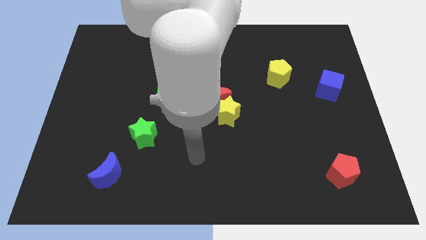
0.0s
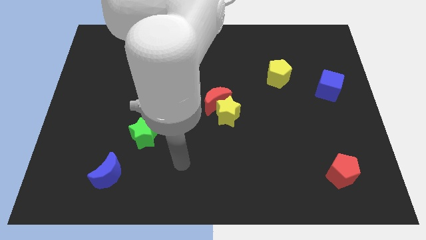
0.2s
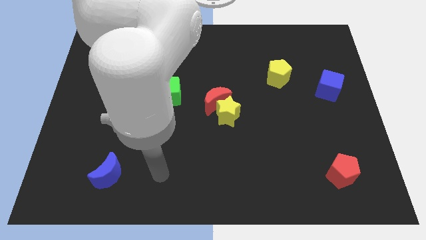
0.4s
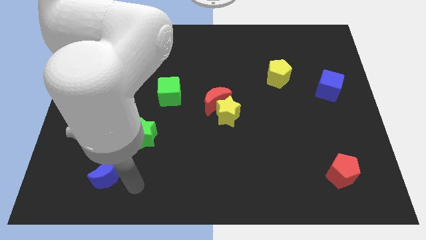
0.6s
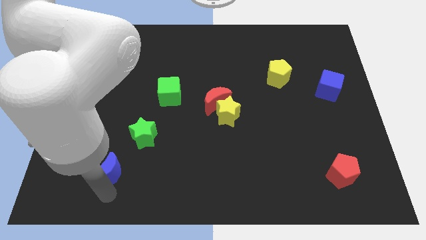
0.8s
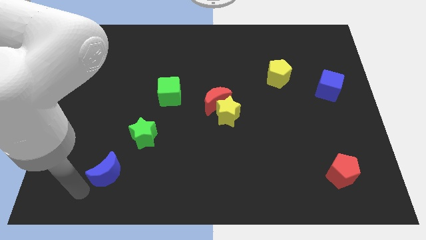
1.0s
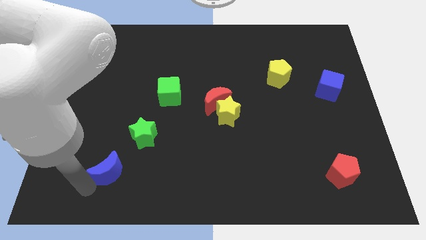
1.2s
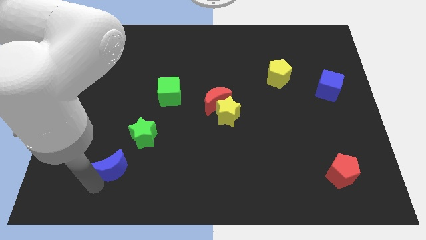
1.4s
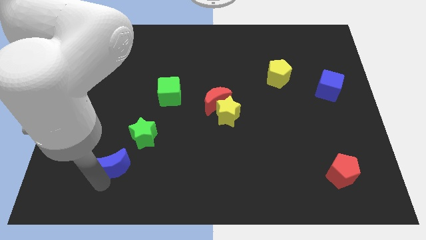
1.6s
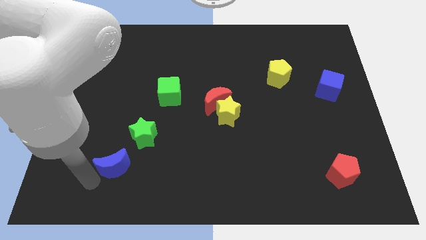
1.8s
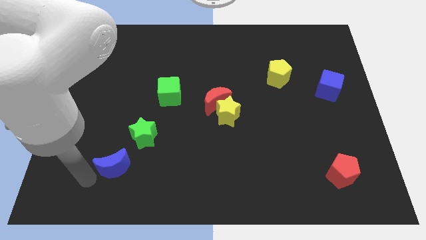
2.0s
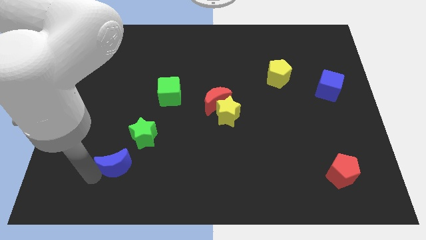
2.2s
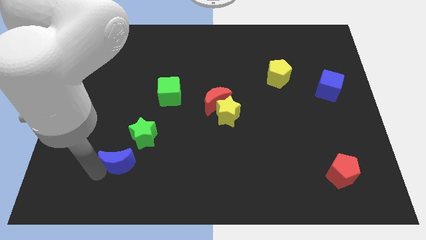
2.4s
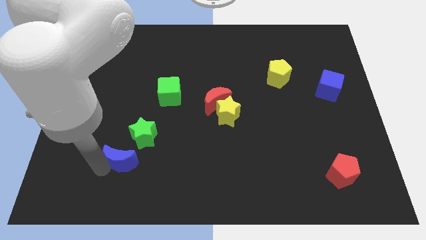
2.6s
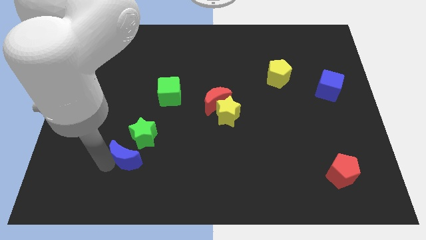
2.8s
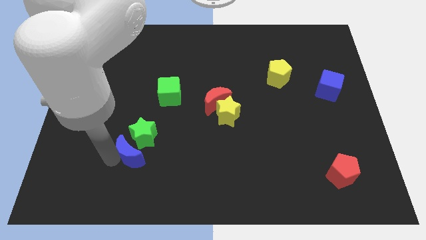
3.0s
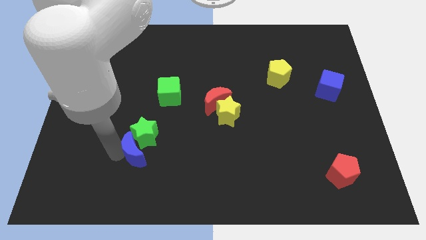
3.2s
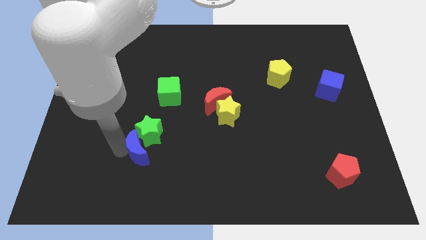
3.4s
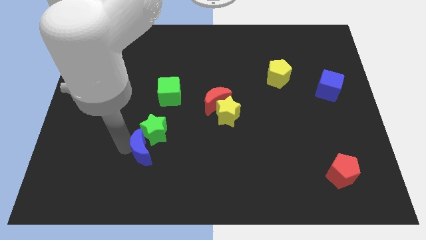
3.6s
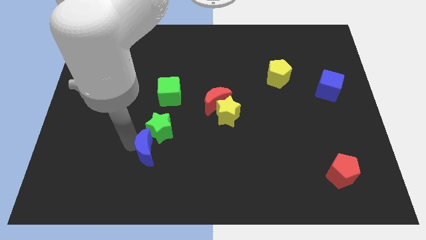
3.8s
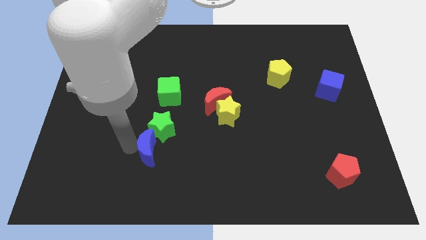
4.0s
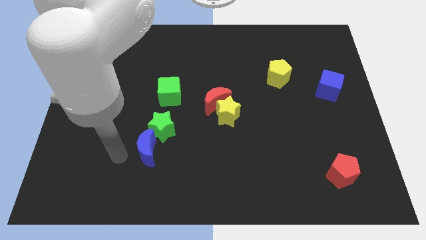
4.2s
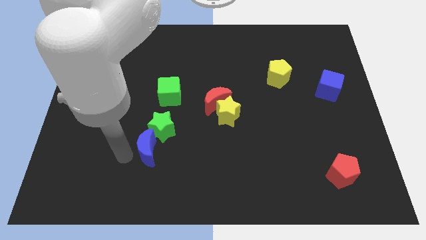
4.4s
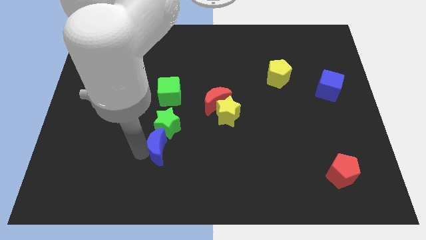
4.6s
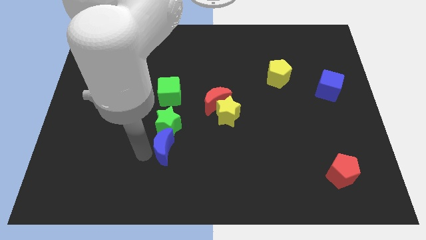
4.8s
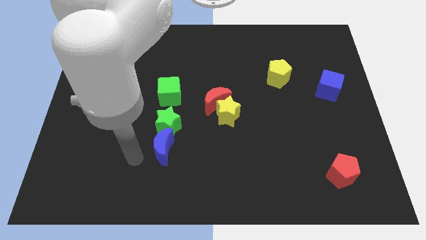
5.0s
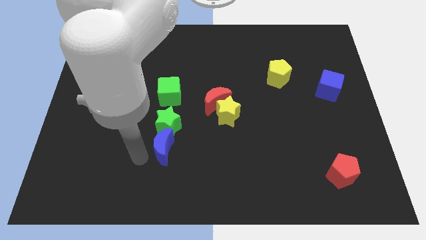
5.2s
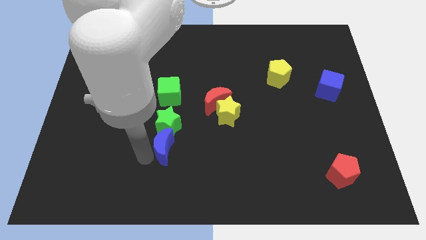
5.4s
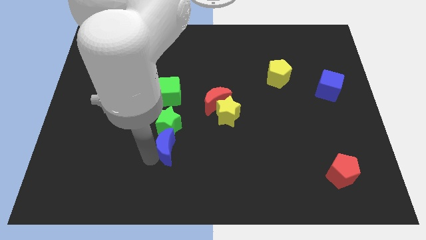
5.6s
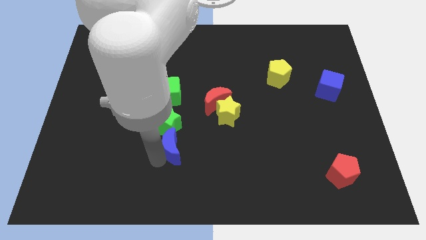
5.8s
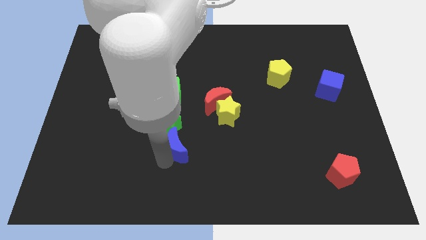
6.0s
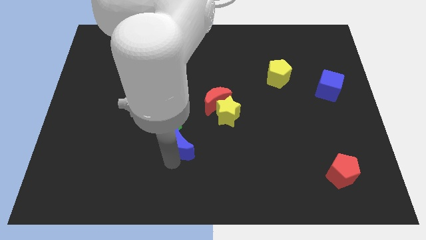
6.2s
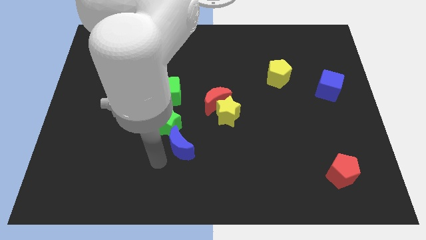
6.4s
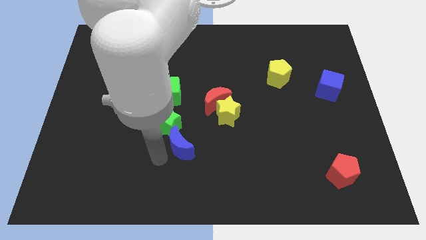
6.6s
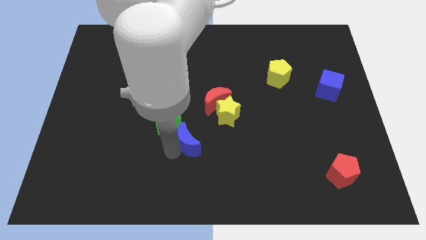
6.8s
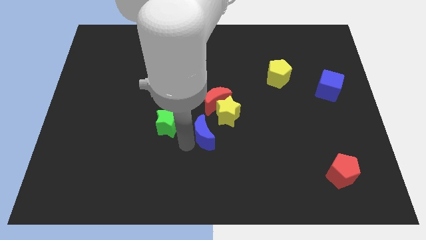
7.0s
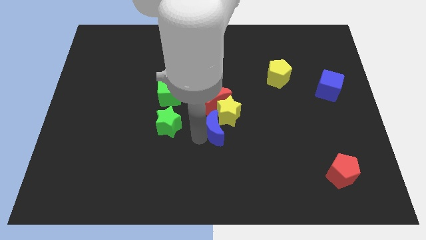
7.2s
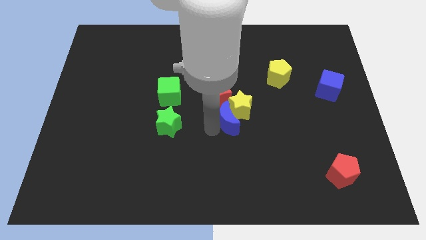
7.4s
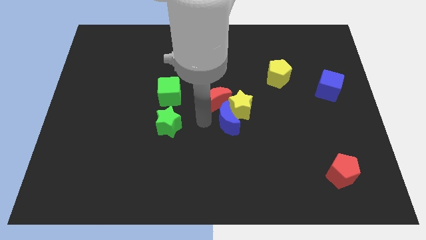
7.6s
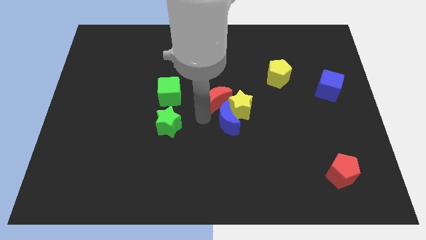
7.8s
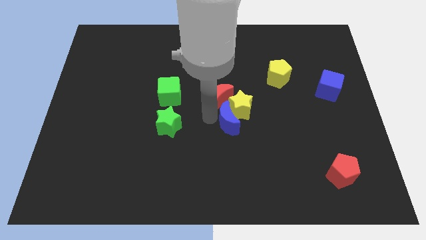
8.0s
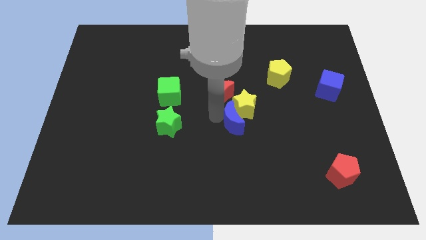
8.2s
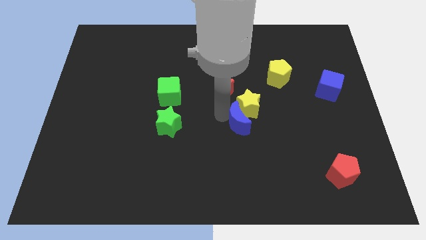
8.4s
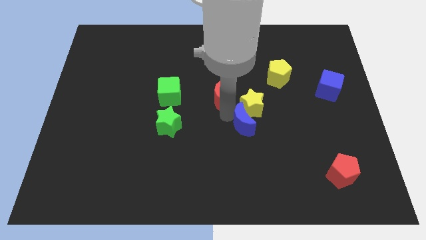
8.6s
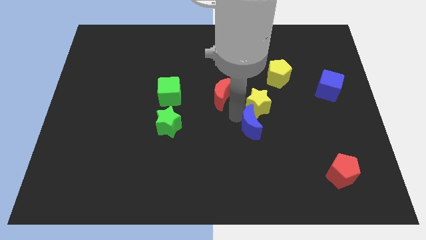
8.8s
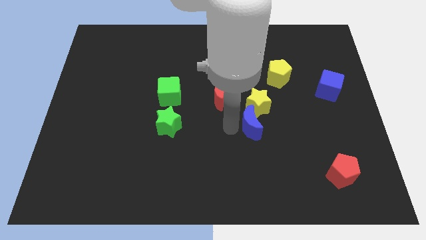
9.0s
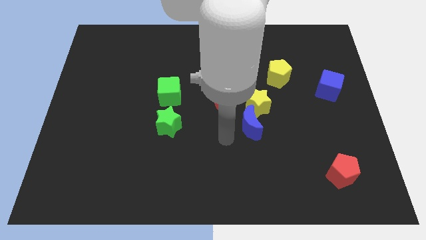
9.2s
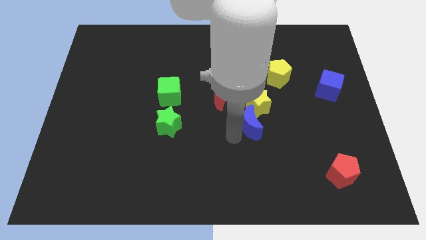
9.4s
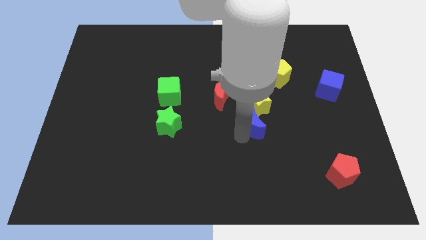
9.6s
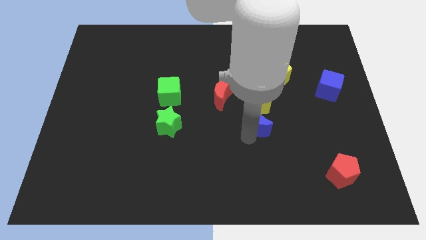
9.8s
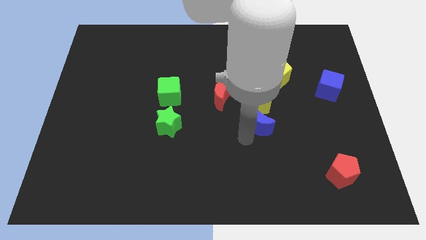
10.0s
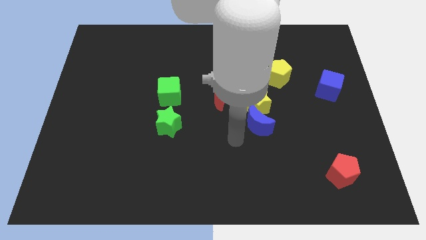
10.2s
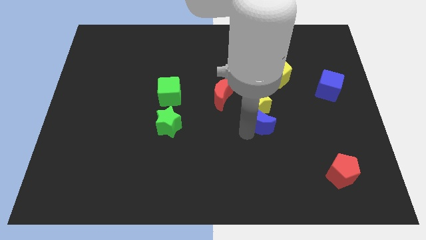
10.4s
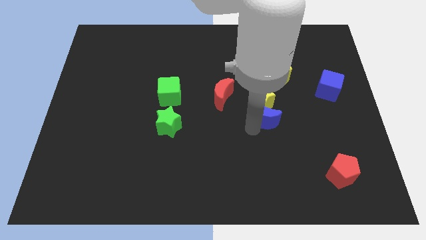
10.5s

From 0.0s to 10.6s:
push the blue moon to the bottom of the yellow pentagon

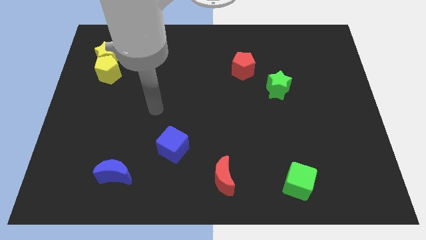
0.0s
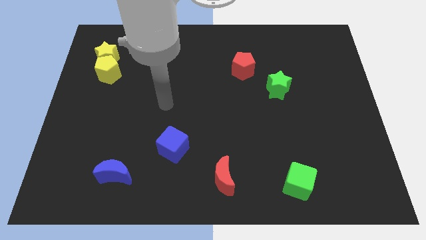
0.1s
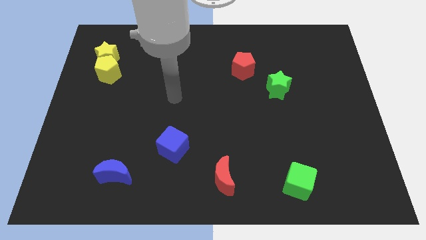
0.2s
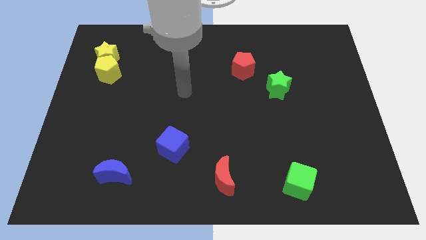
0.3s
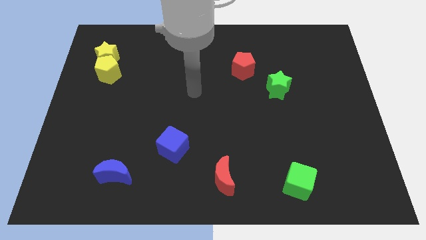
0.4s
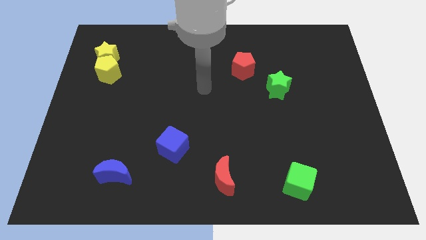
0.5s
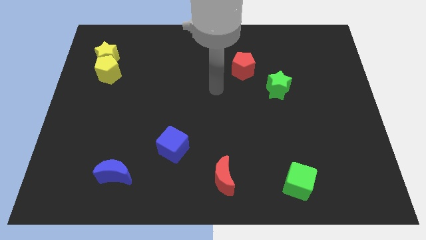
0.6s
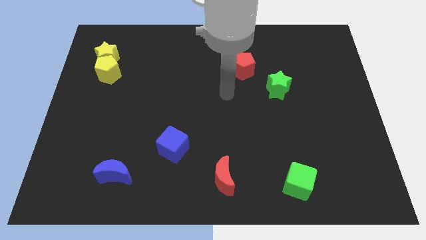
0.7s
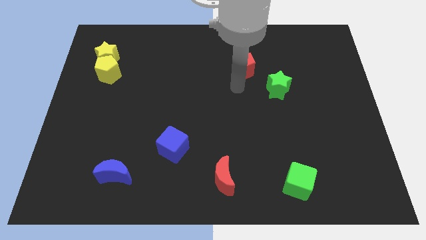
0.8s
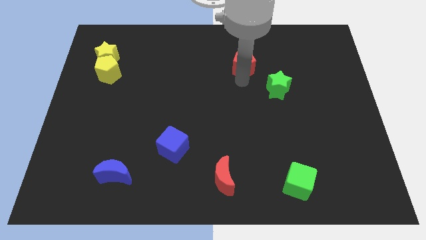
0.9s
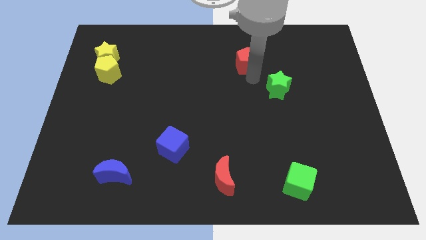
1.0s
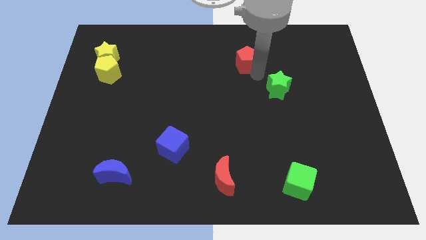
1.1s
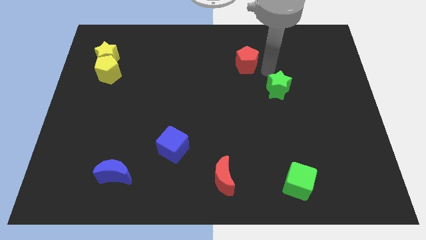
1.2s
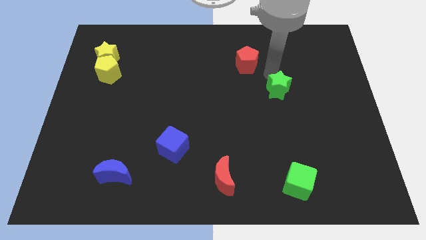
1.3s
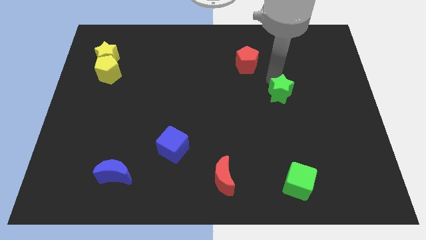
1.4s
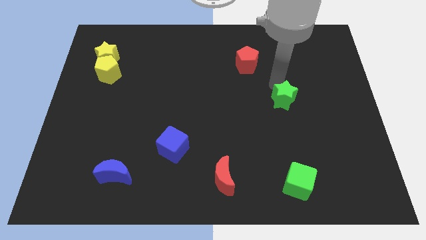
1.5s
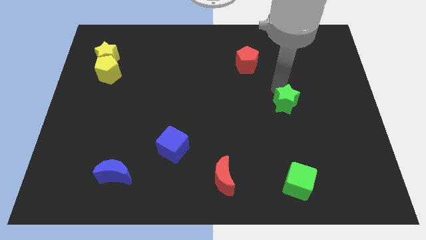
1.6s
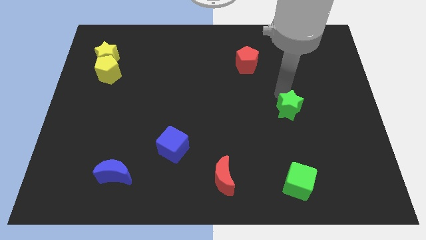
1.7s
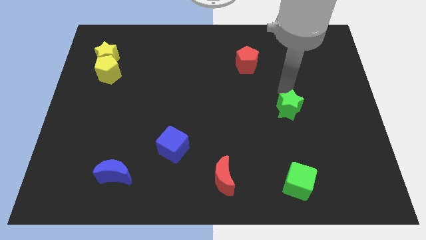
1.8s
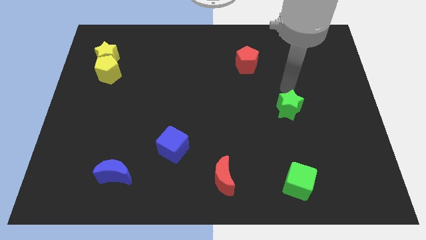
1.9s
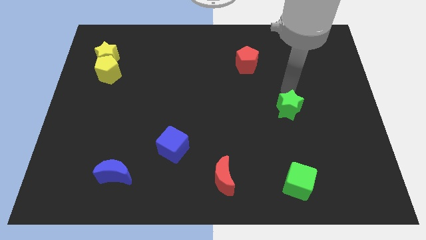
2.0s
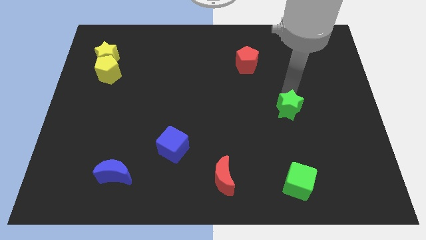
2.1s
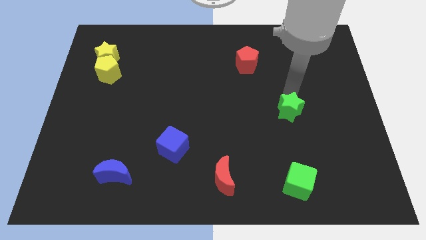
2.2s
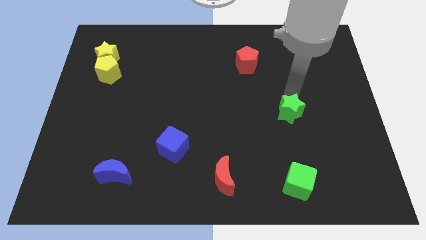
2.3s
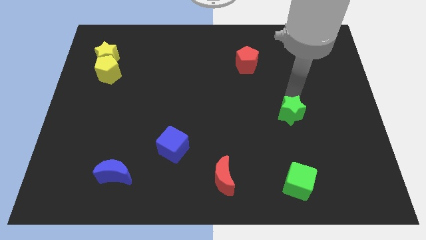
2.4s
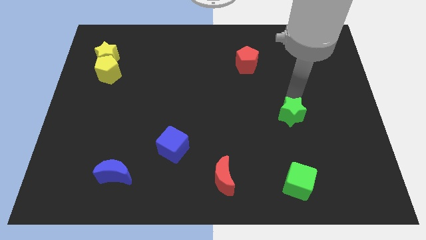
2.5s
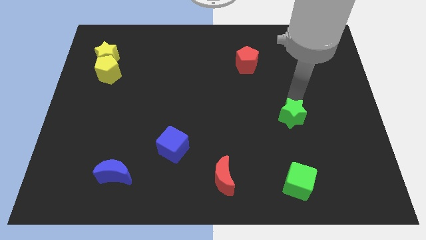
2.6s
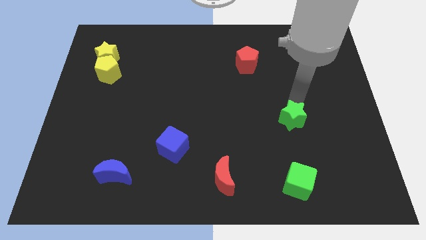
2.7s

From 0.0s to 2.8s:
slide the green star to the top side of the green cube
